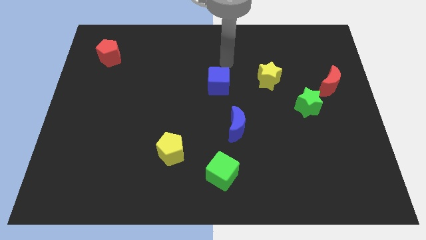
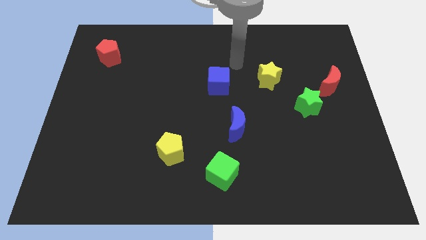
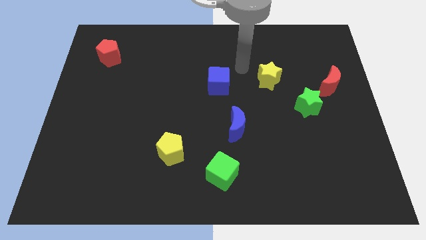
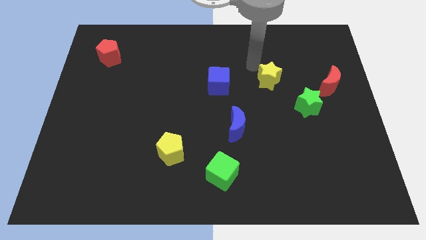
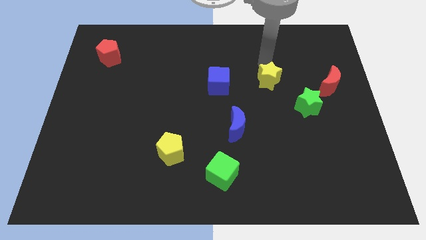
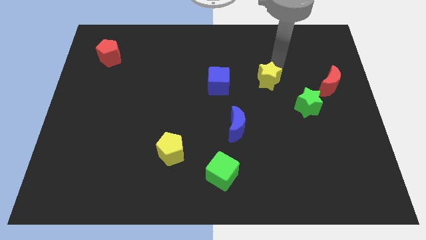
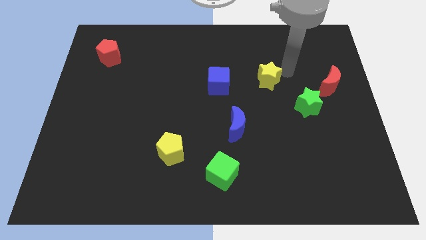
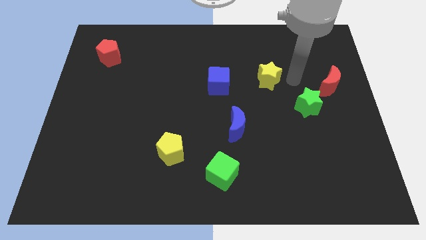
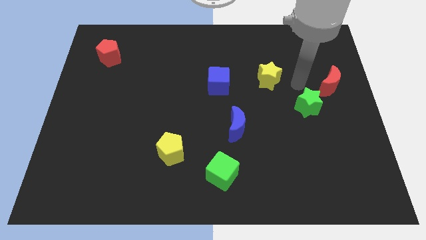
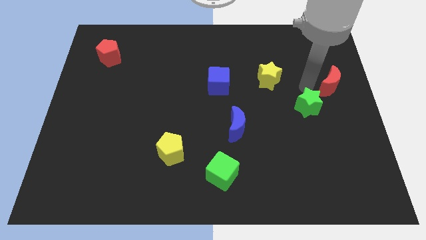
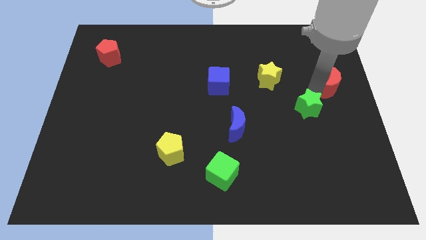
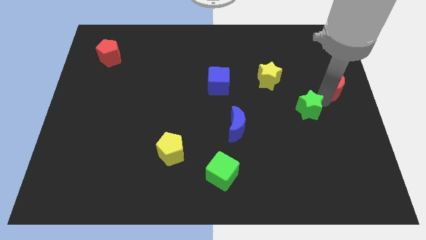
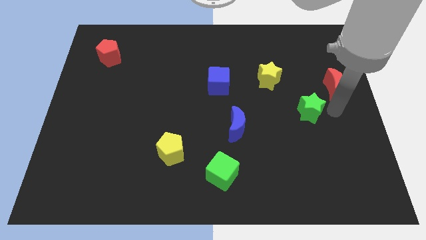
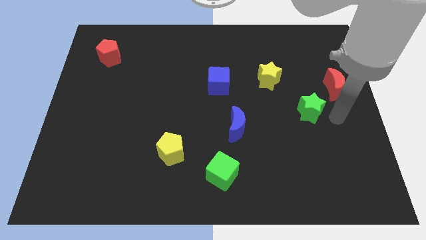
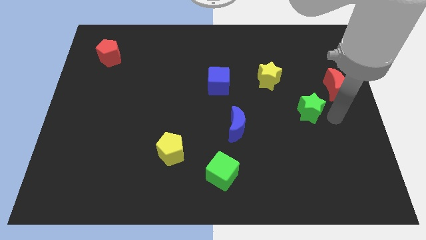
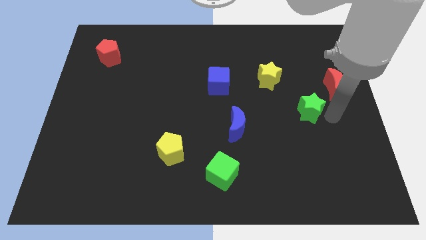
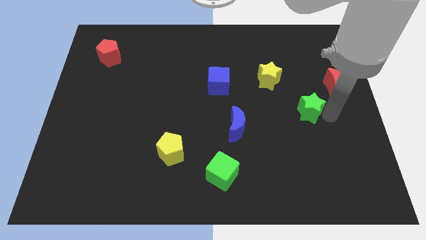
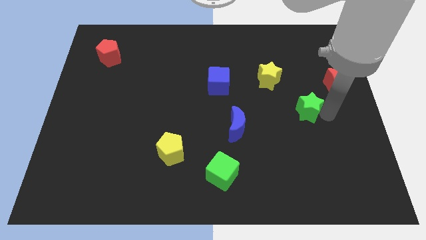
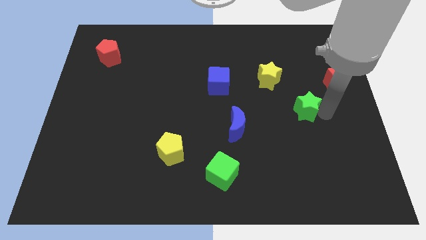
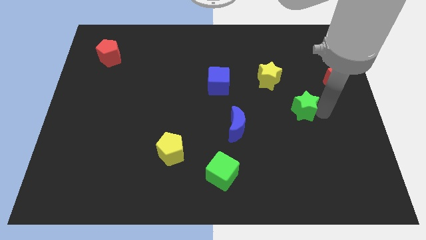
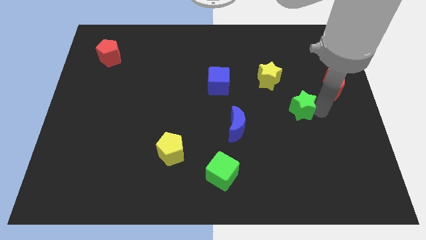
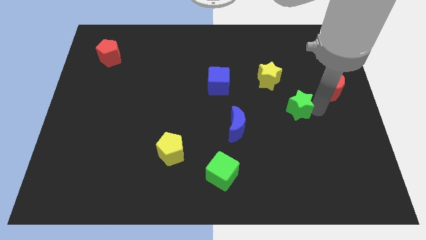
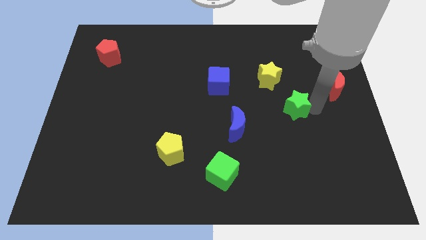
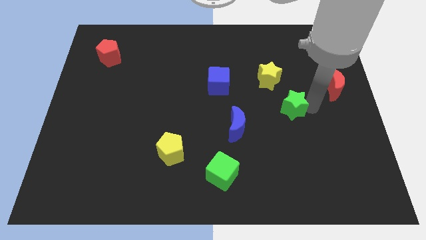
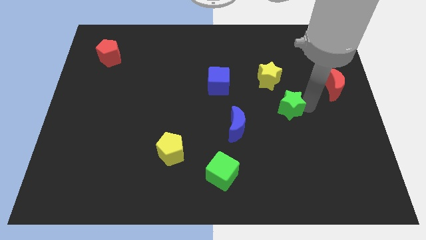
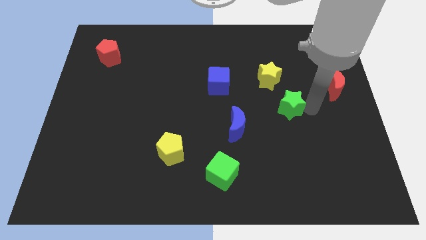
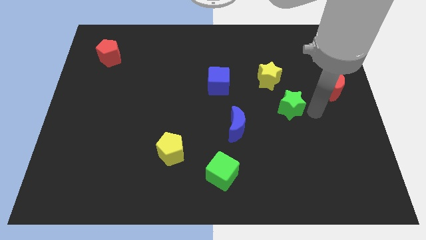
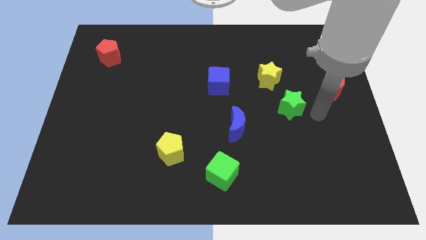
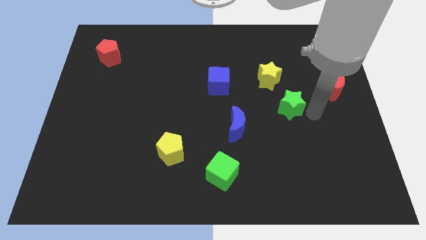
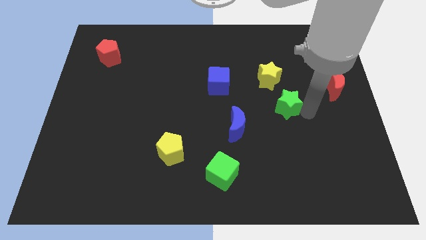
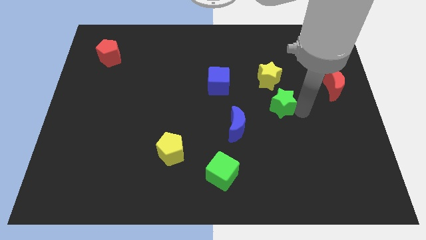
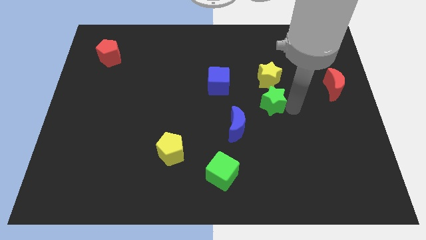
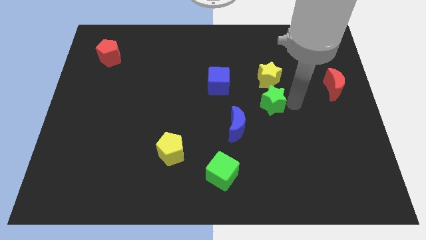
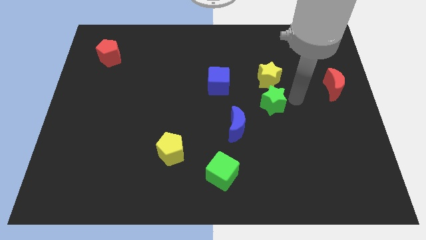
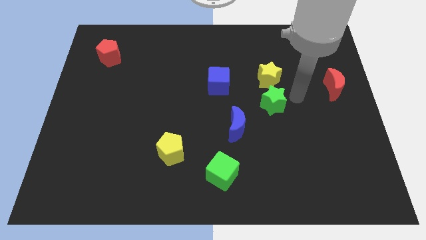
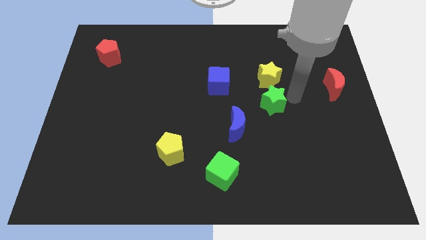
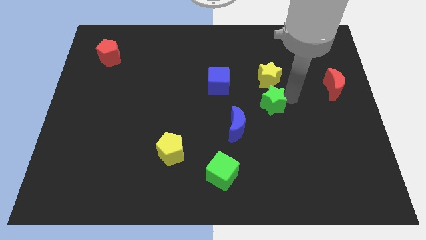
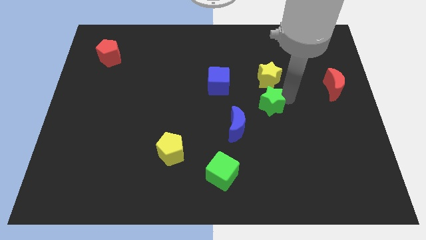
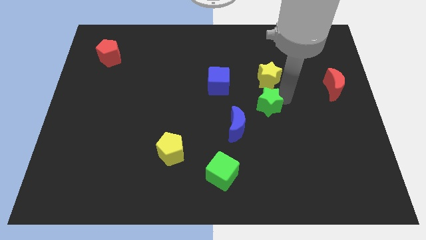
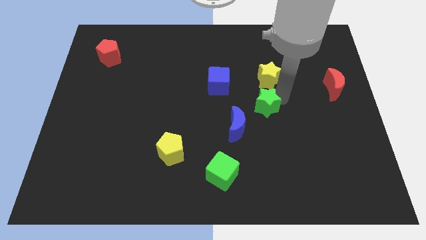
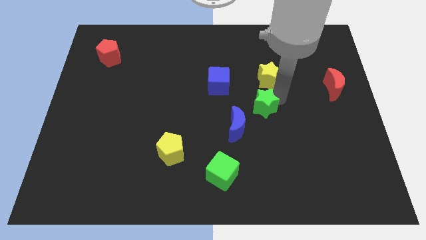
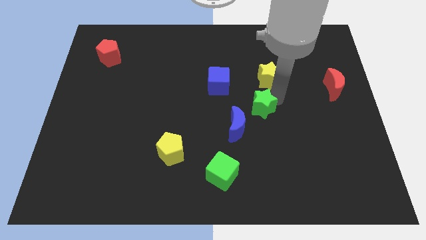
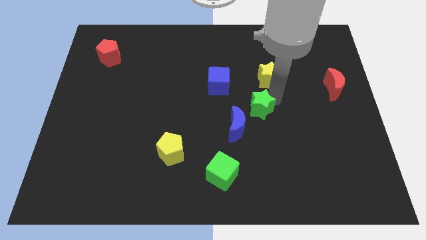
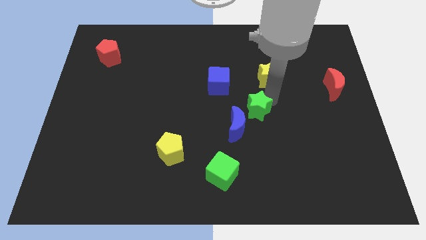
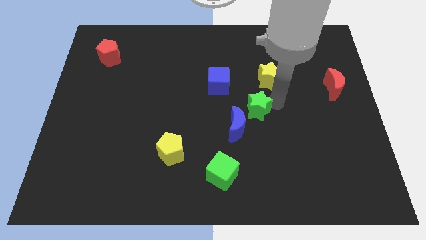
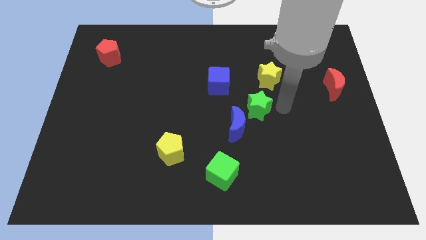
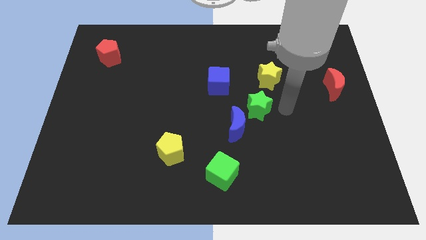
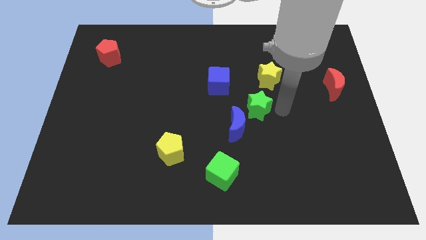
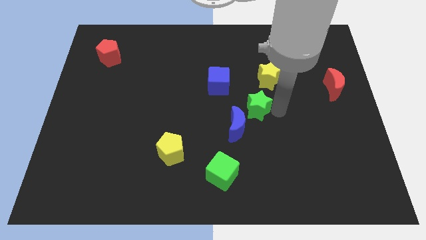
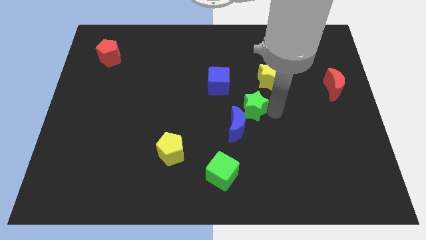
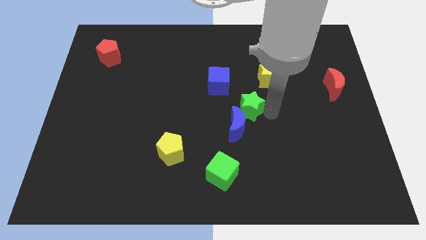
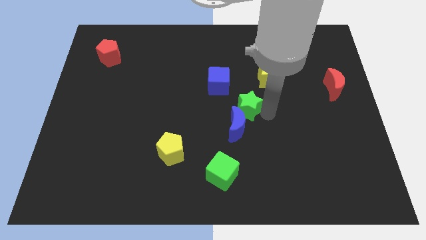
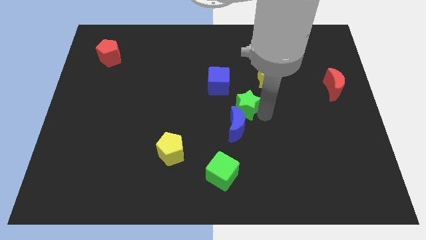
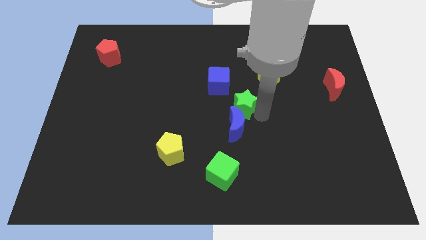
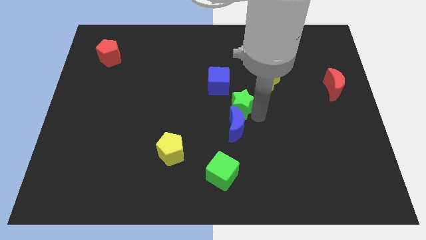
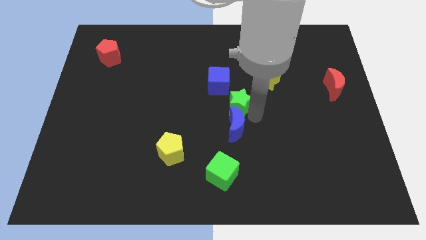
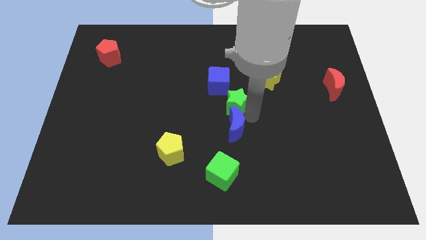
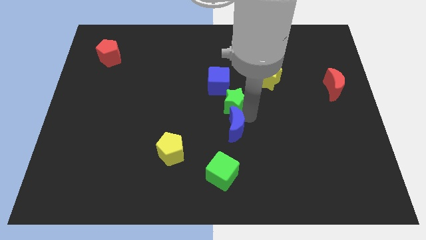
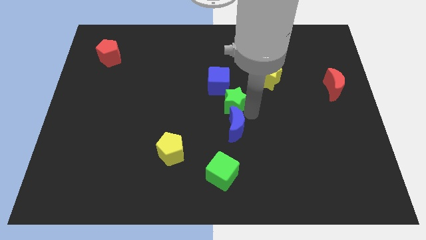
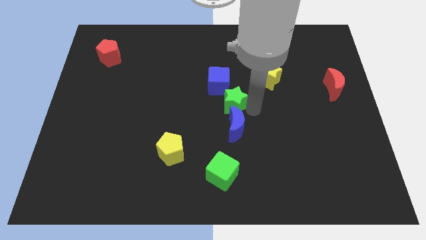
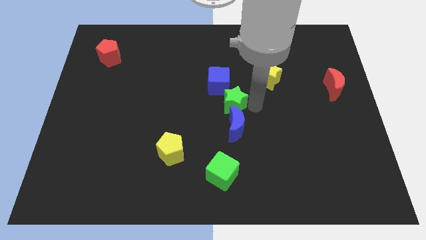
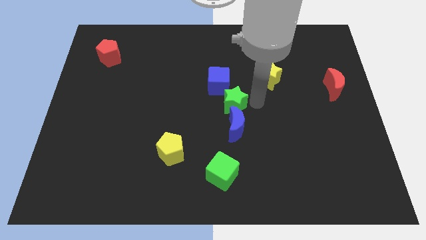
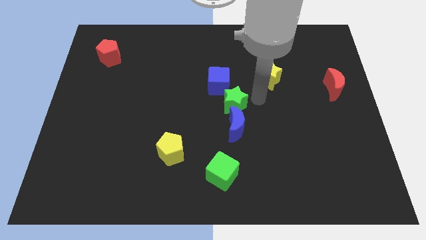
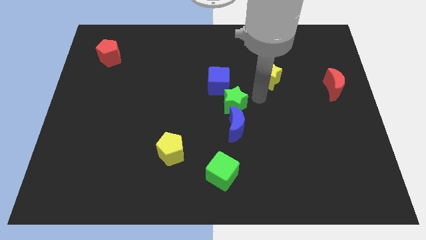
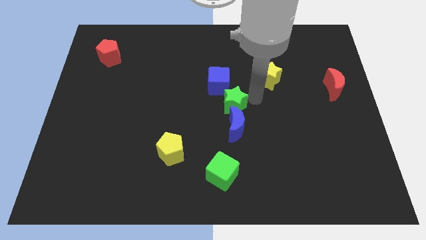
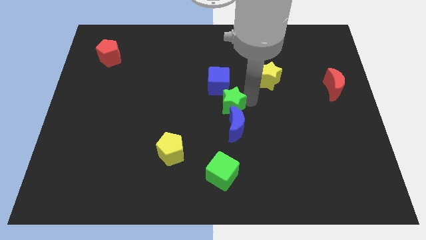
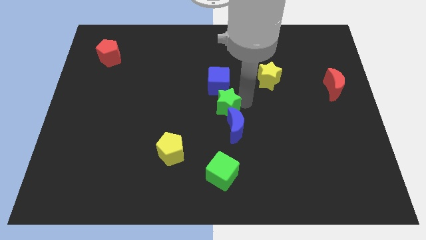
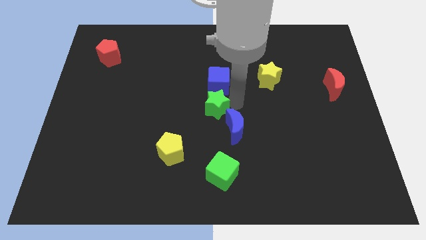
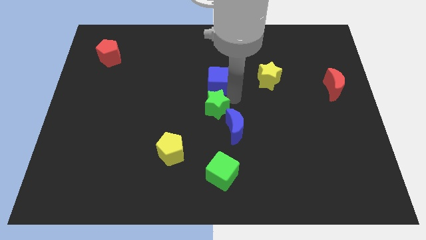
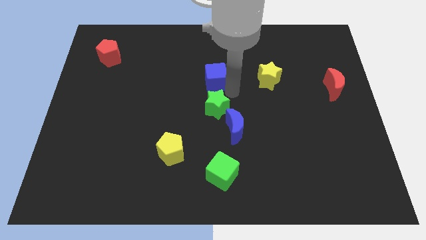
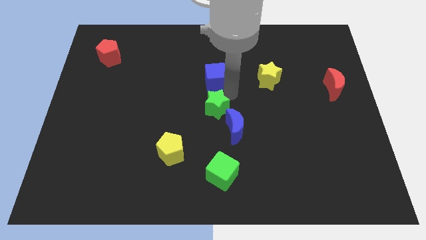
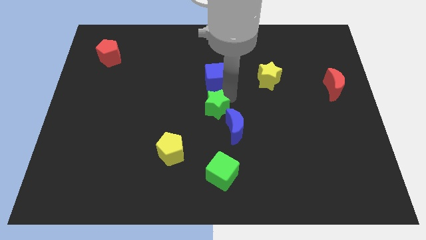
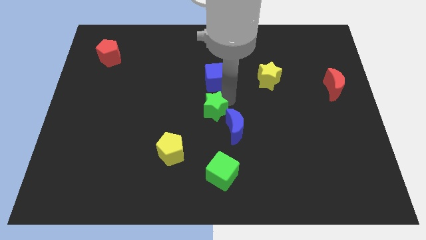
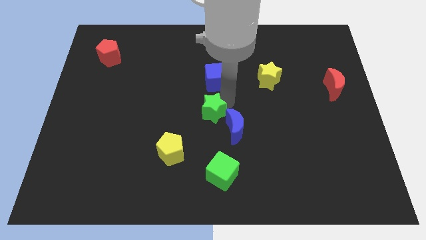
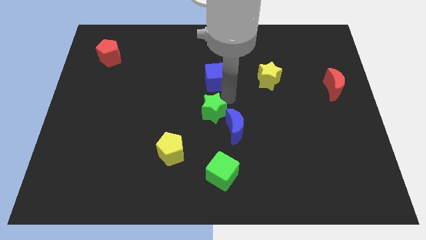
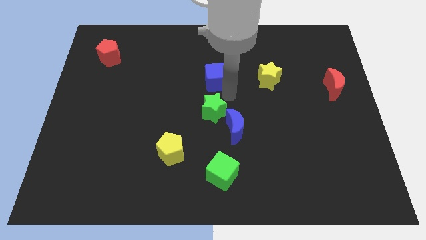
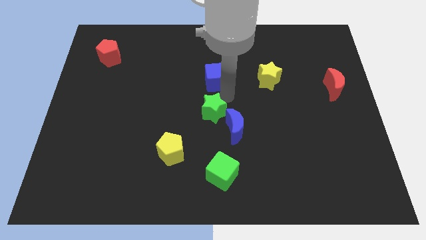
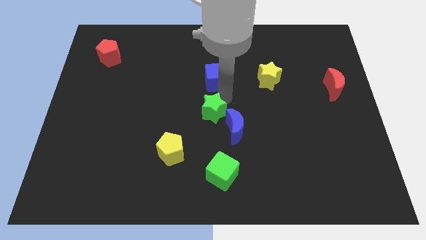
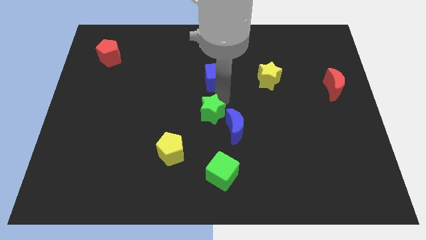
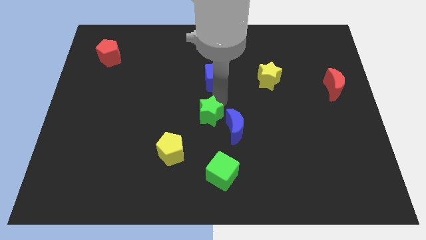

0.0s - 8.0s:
move the green star to the top right of the yellow pentagon

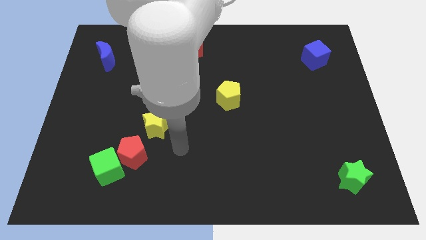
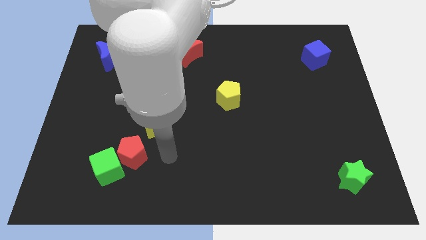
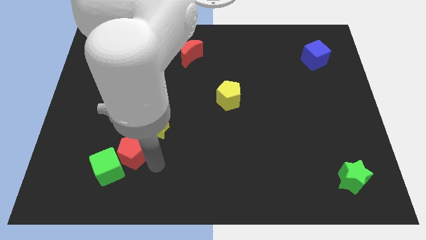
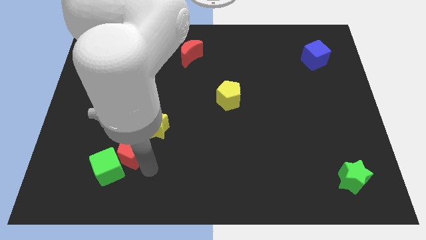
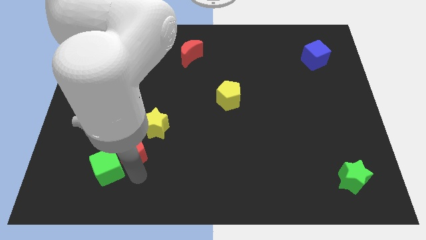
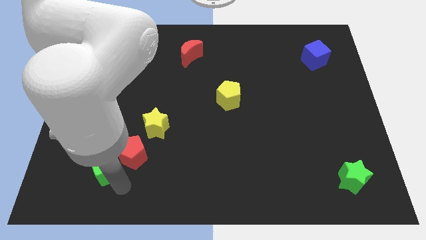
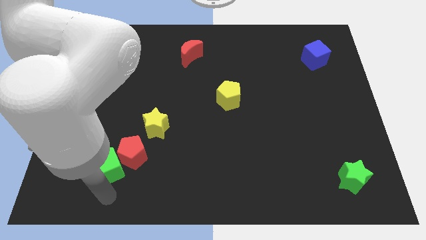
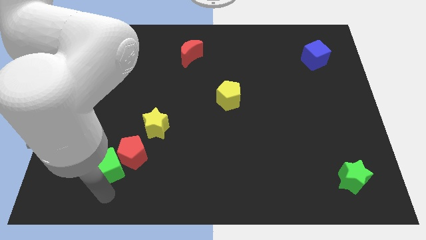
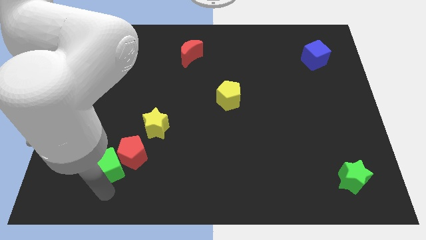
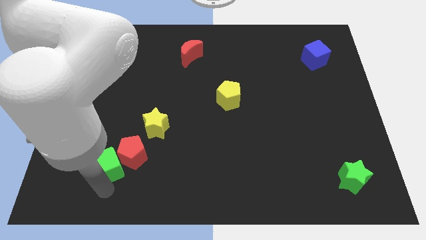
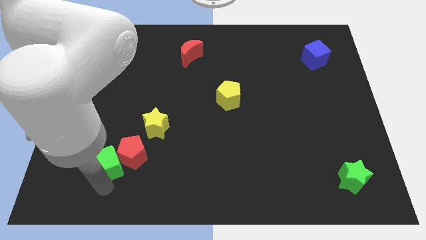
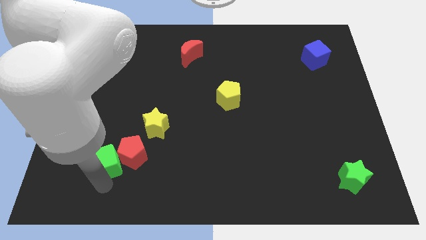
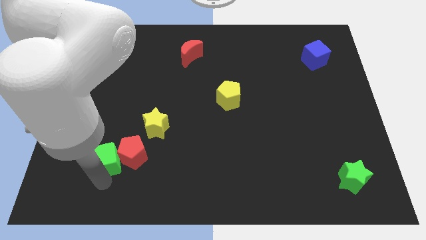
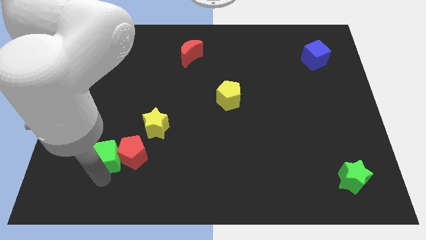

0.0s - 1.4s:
move the green cube to the top left side of the red pentagon
